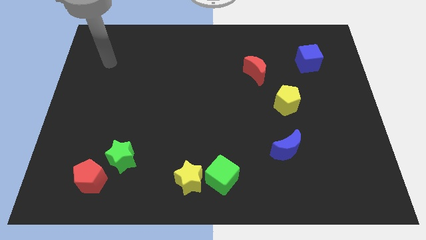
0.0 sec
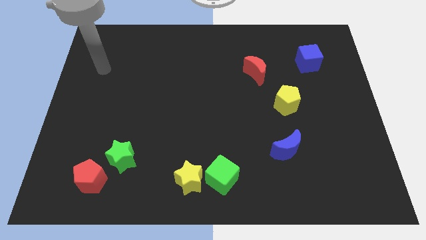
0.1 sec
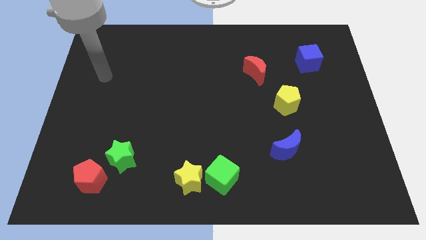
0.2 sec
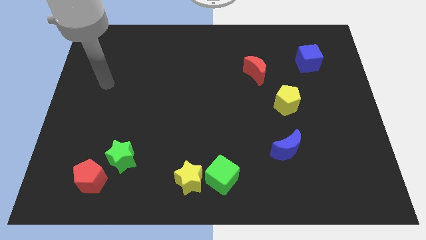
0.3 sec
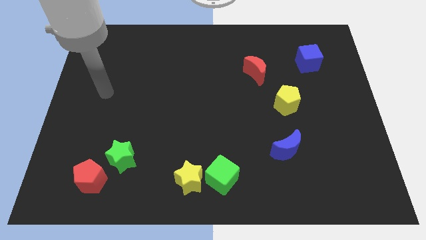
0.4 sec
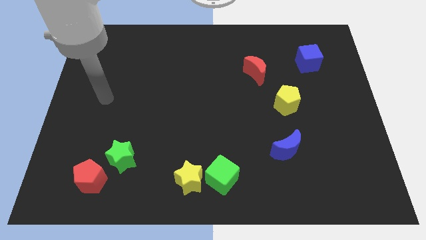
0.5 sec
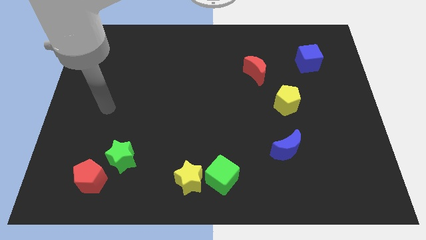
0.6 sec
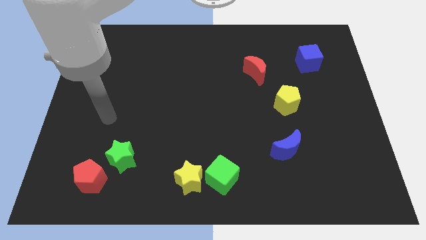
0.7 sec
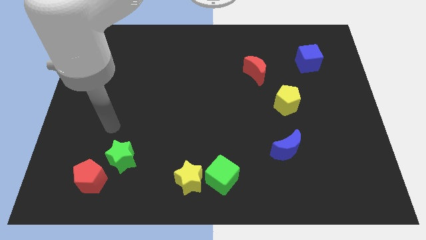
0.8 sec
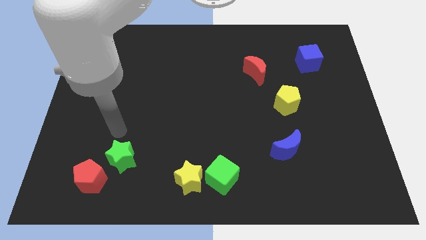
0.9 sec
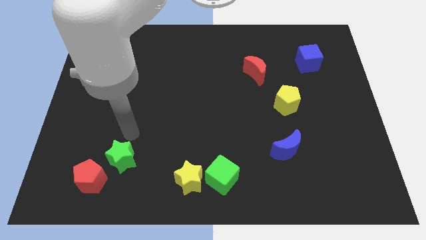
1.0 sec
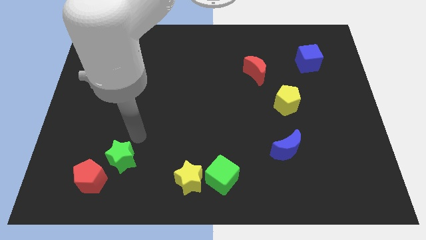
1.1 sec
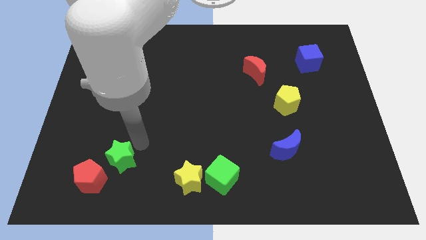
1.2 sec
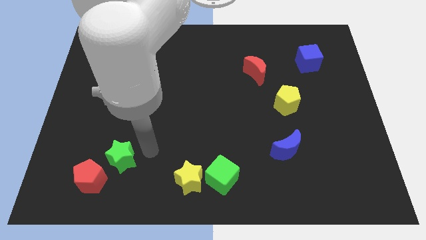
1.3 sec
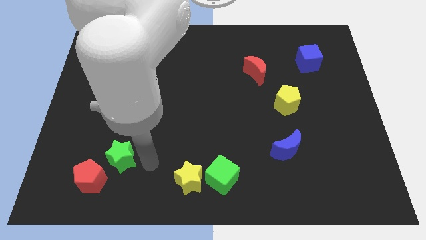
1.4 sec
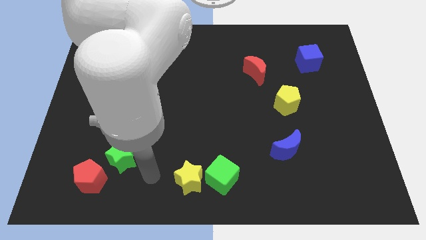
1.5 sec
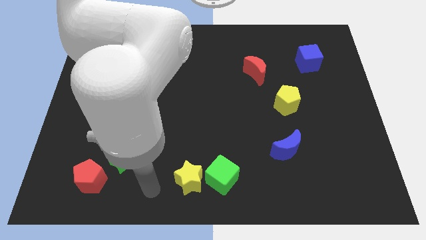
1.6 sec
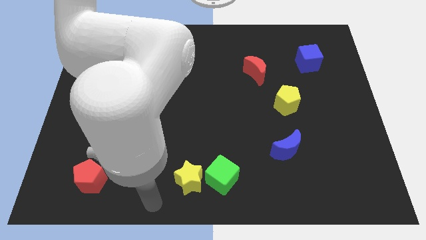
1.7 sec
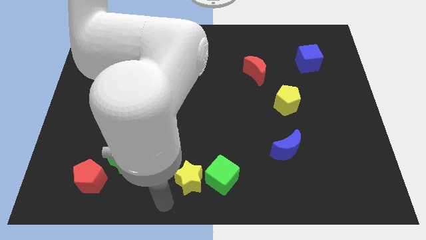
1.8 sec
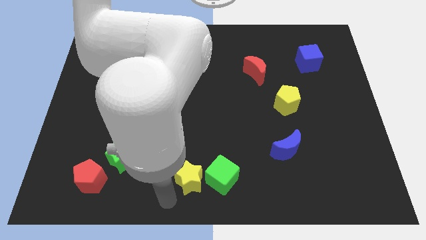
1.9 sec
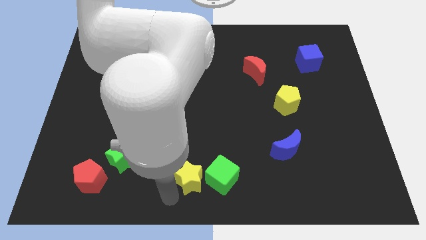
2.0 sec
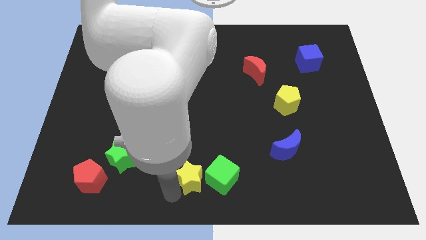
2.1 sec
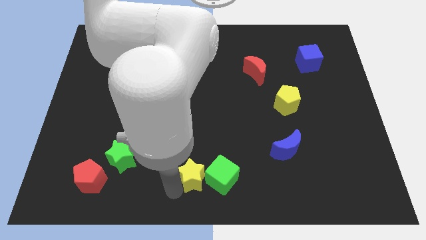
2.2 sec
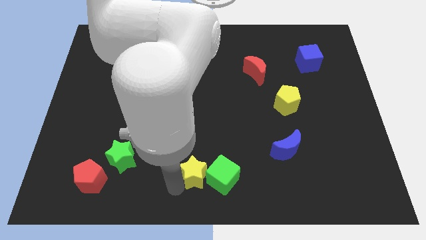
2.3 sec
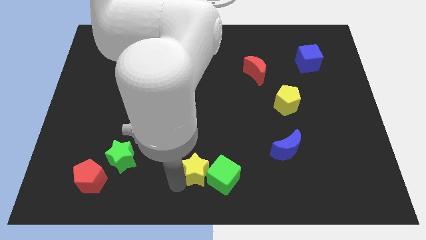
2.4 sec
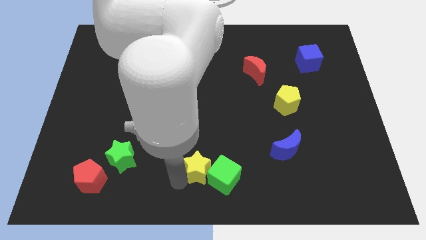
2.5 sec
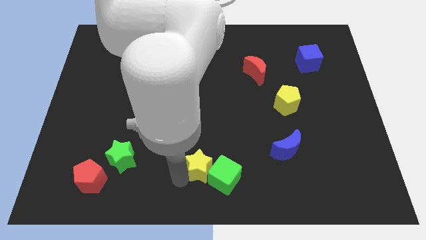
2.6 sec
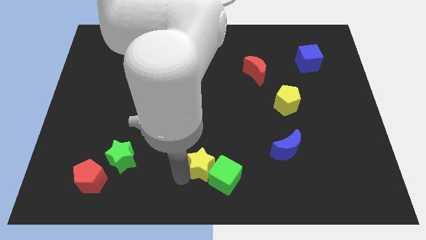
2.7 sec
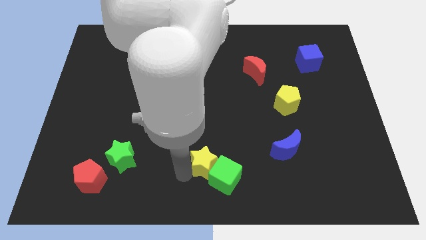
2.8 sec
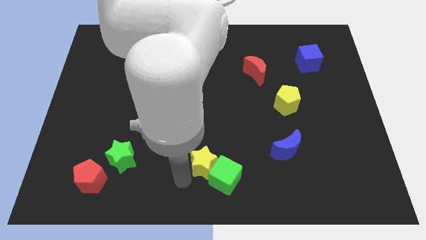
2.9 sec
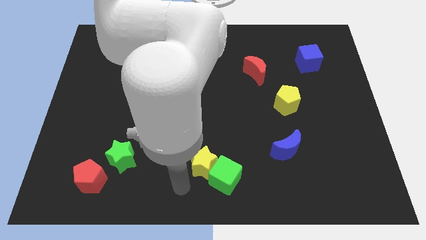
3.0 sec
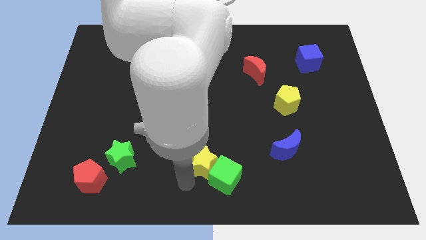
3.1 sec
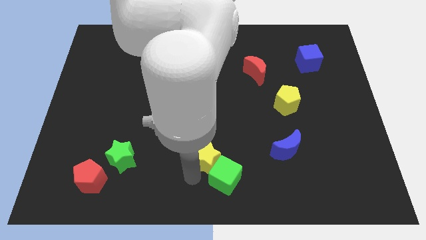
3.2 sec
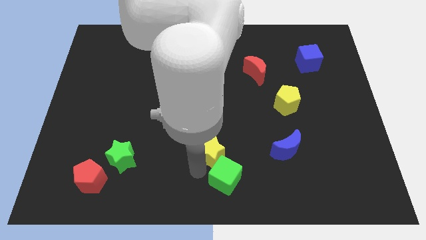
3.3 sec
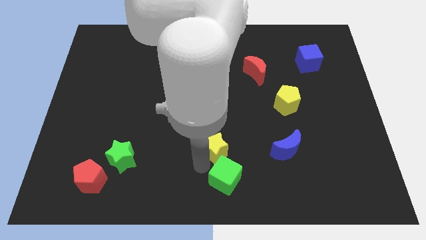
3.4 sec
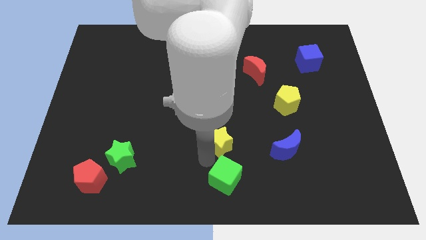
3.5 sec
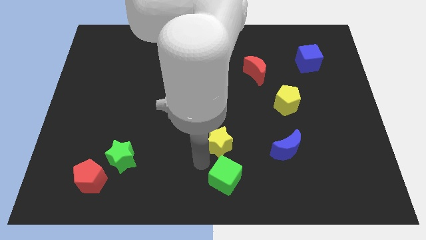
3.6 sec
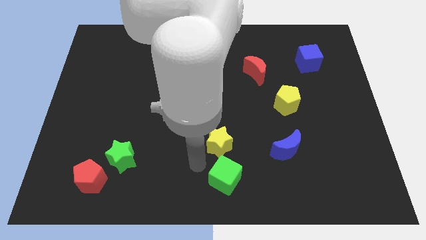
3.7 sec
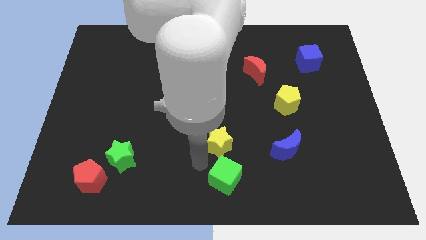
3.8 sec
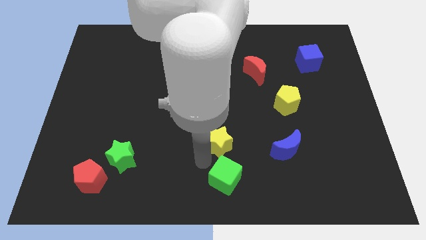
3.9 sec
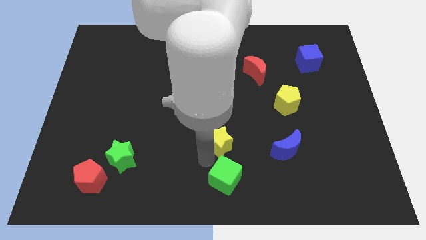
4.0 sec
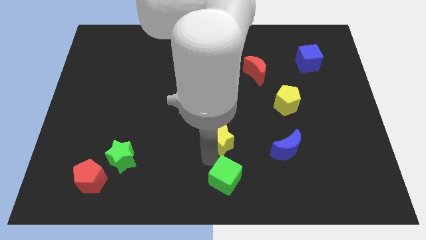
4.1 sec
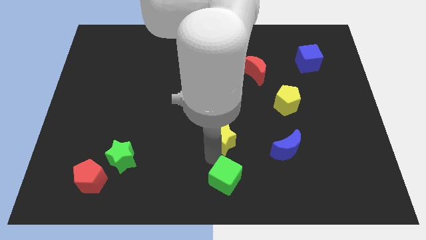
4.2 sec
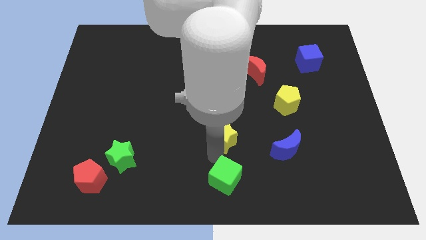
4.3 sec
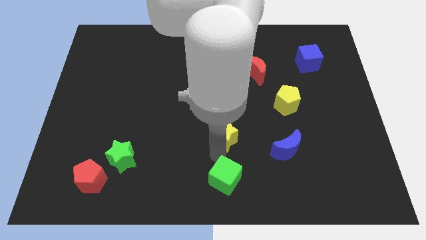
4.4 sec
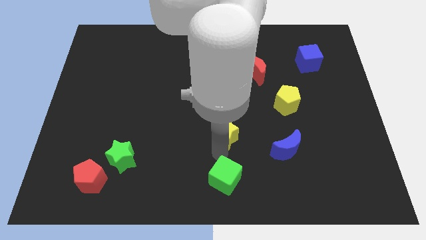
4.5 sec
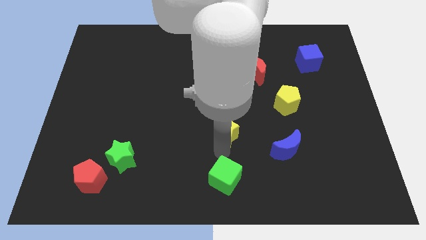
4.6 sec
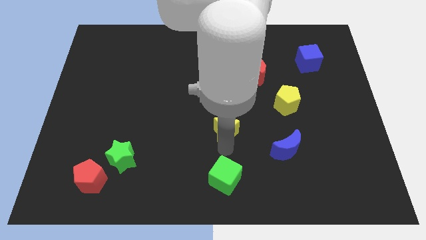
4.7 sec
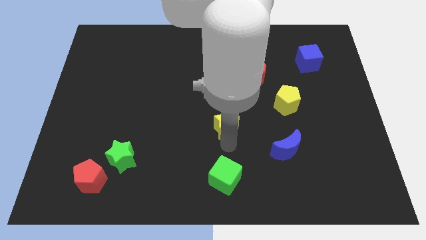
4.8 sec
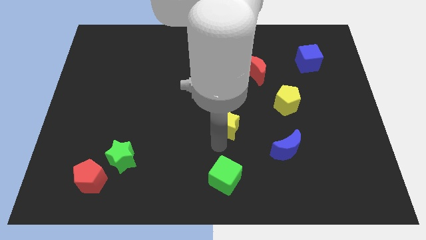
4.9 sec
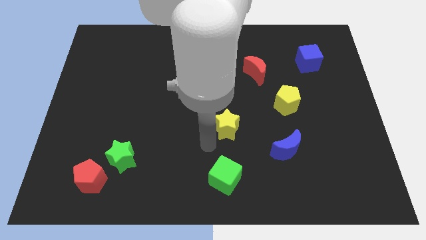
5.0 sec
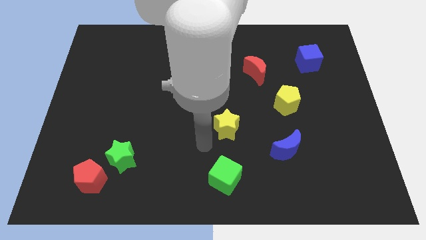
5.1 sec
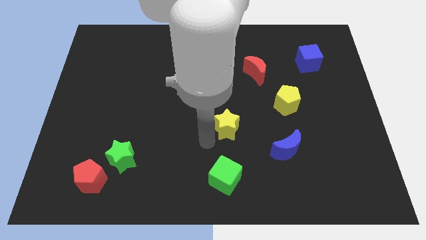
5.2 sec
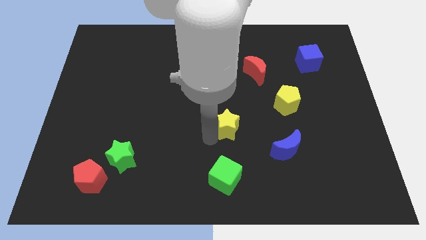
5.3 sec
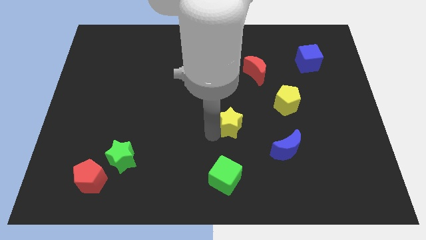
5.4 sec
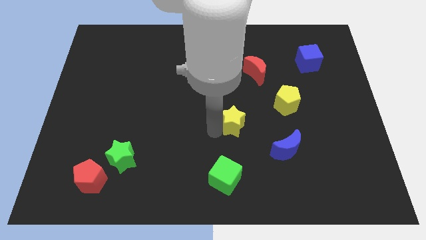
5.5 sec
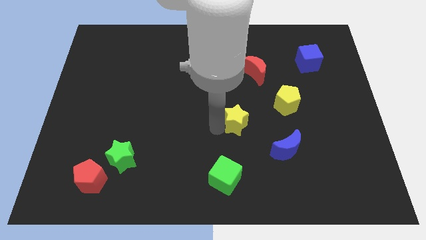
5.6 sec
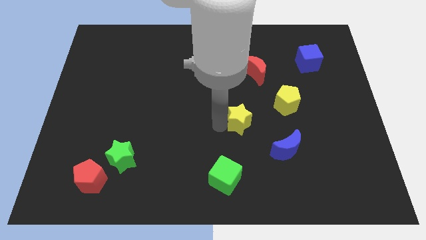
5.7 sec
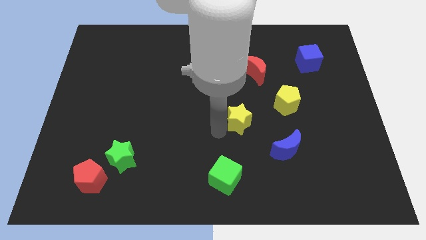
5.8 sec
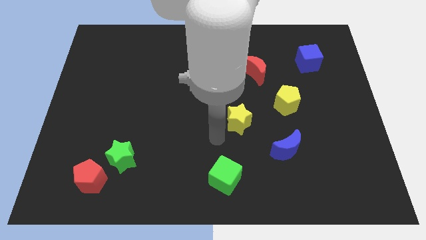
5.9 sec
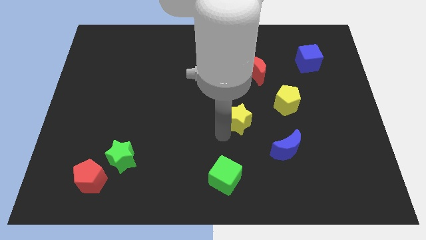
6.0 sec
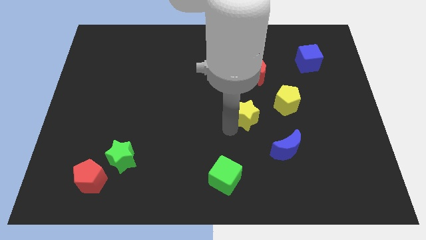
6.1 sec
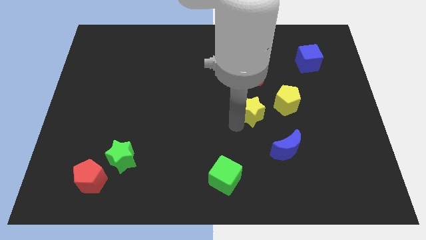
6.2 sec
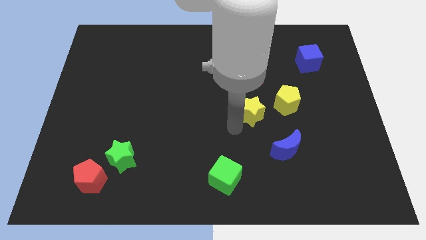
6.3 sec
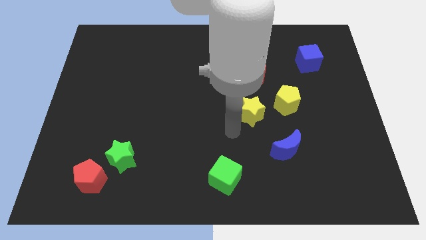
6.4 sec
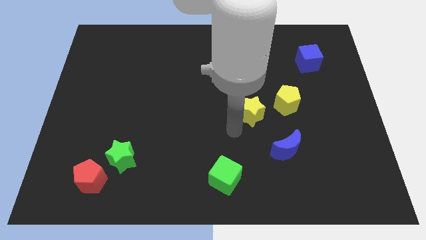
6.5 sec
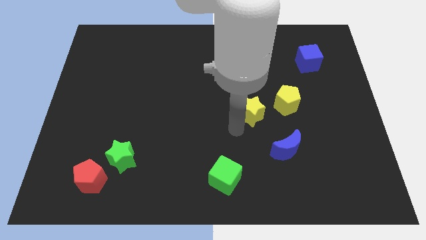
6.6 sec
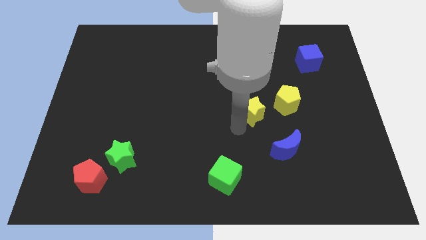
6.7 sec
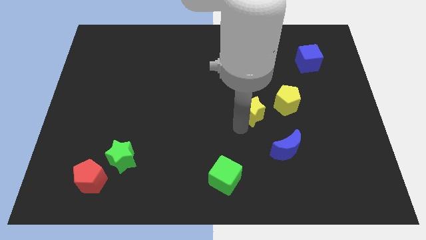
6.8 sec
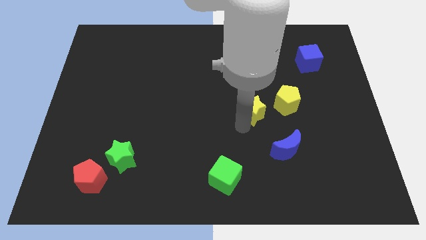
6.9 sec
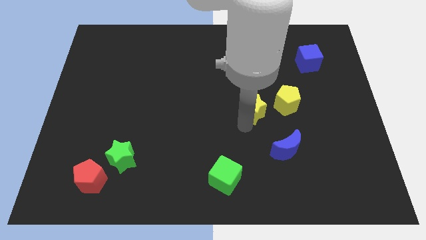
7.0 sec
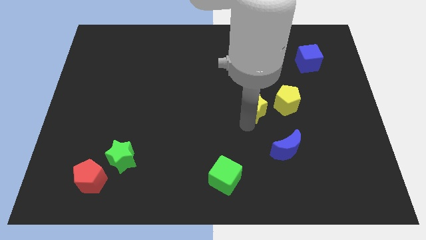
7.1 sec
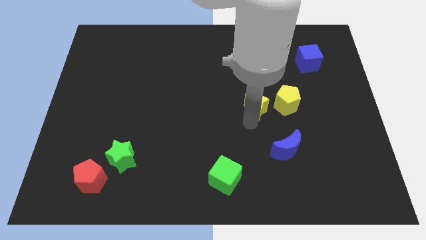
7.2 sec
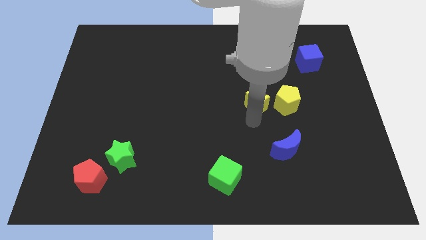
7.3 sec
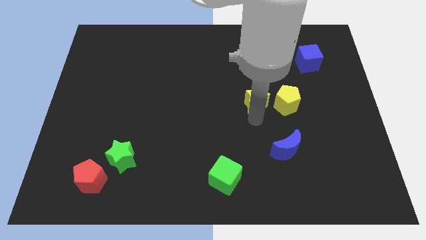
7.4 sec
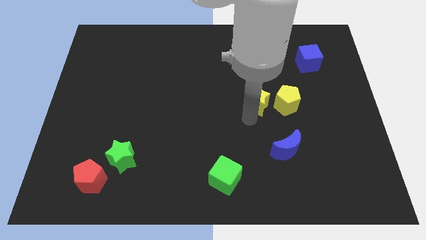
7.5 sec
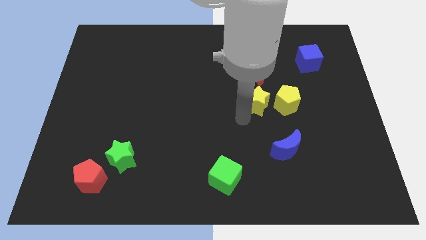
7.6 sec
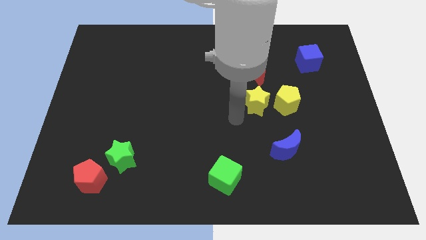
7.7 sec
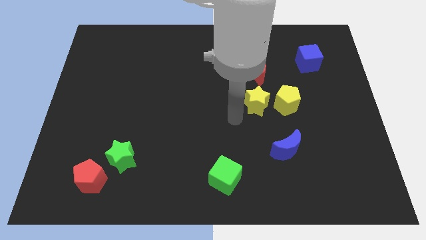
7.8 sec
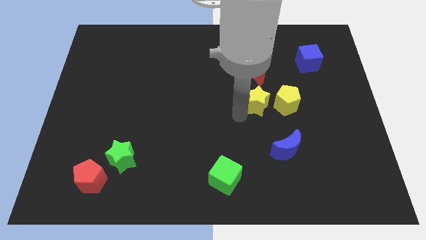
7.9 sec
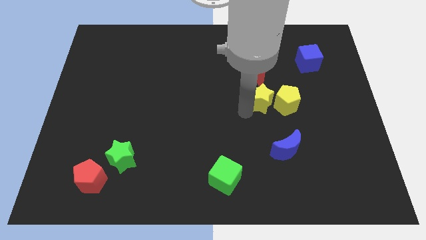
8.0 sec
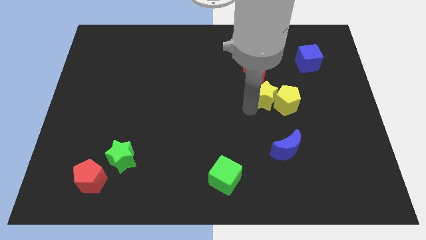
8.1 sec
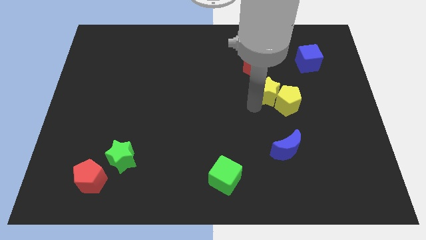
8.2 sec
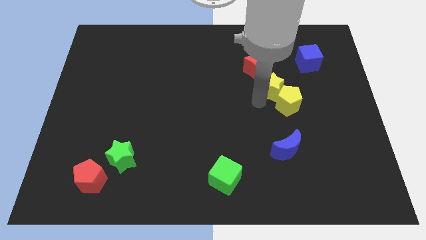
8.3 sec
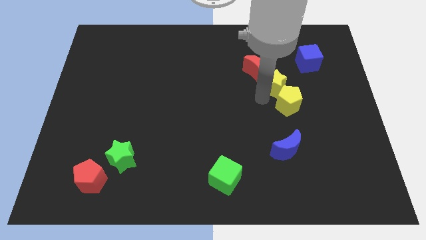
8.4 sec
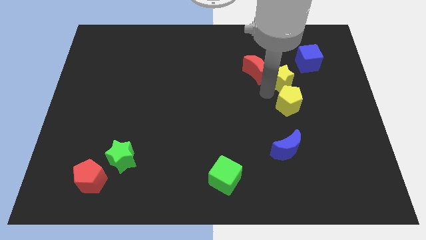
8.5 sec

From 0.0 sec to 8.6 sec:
move the yellow star right of the red moon
